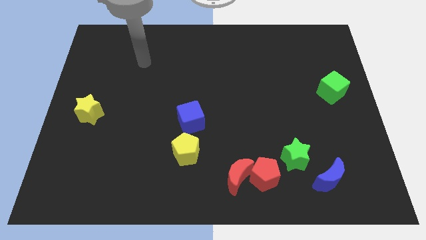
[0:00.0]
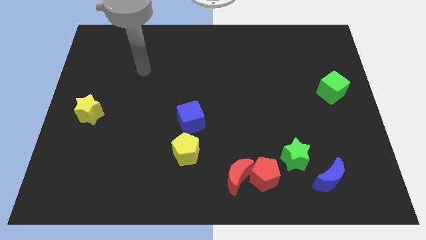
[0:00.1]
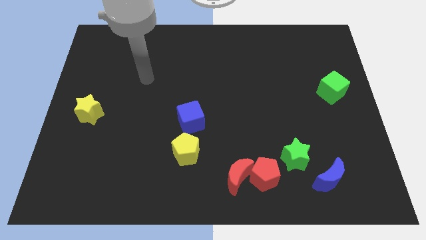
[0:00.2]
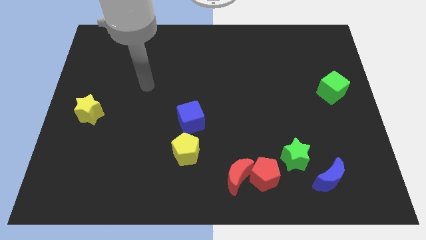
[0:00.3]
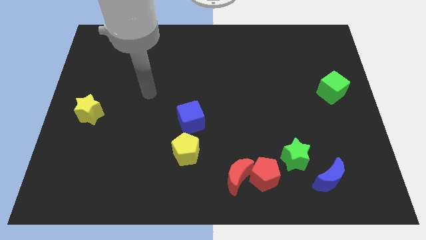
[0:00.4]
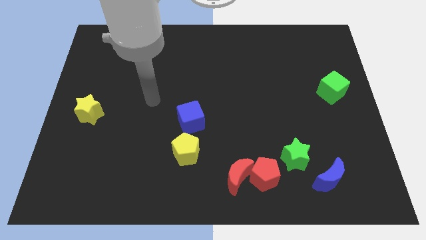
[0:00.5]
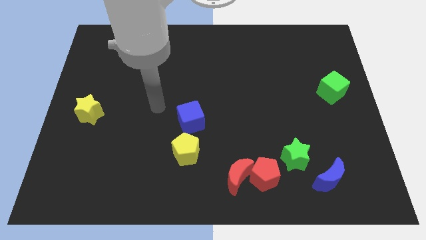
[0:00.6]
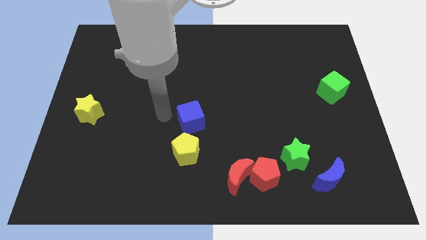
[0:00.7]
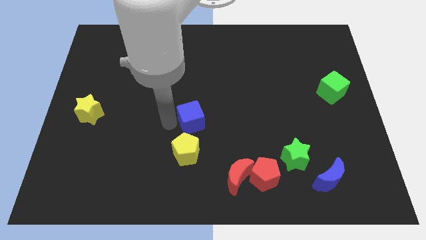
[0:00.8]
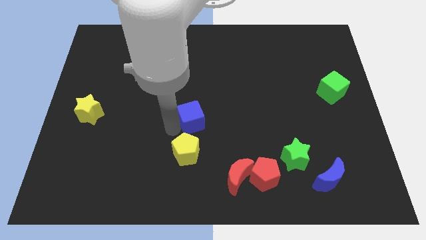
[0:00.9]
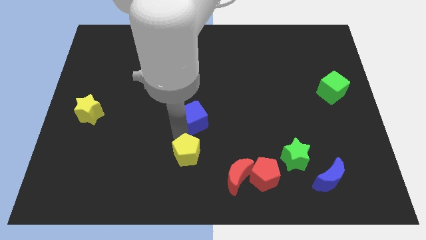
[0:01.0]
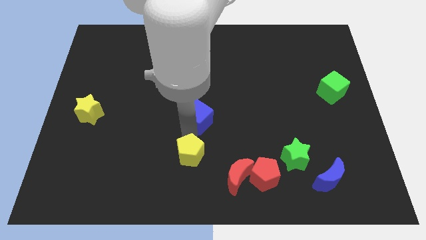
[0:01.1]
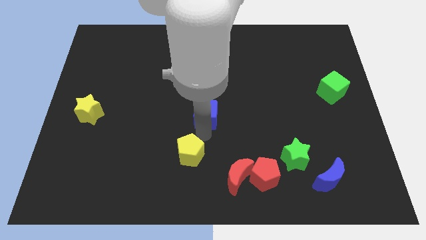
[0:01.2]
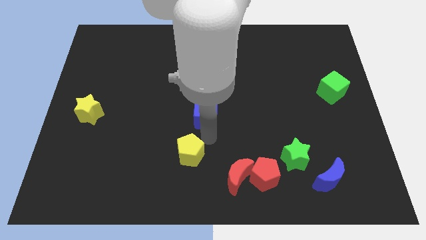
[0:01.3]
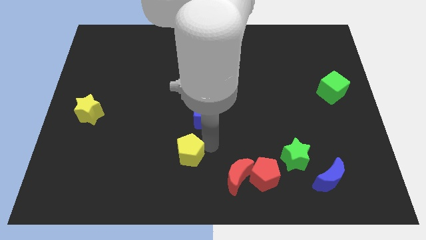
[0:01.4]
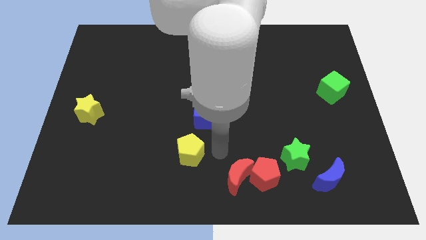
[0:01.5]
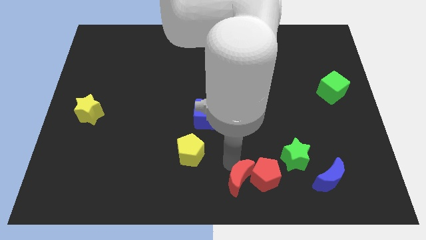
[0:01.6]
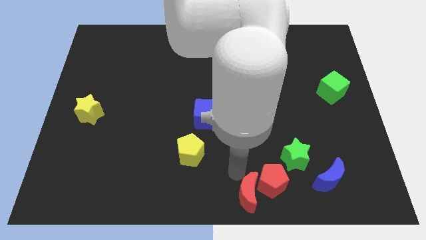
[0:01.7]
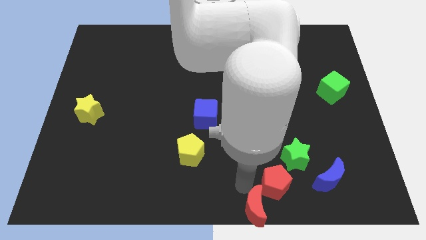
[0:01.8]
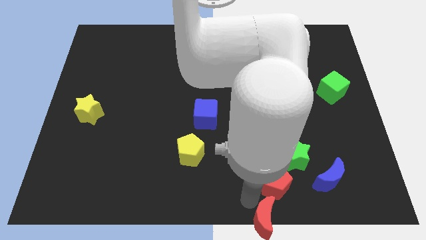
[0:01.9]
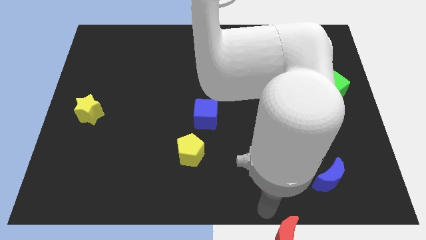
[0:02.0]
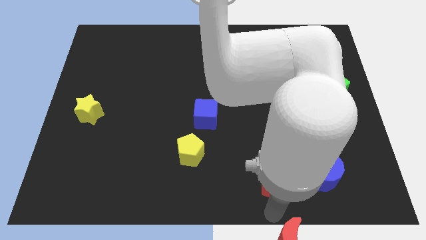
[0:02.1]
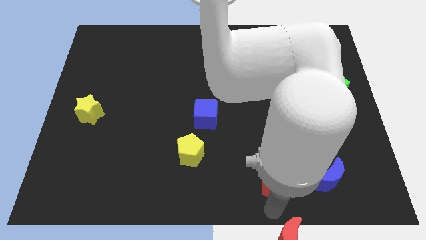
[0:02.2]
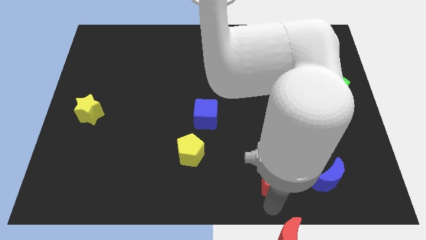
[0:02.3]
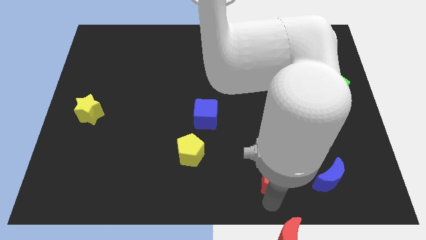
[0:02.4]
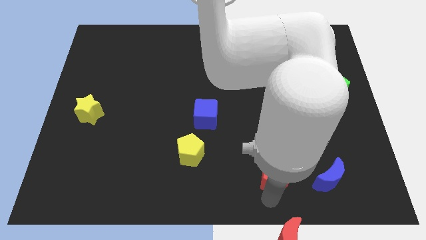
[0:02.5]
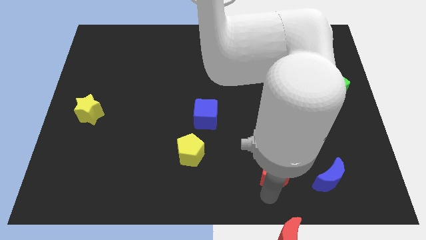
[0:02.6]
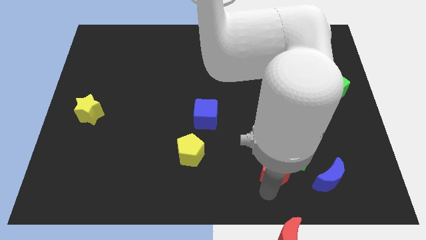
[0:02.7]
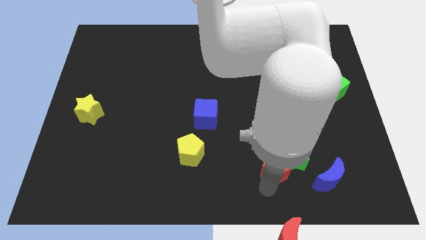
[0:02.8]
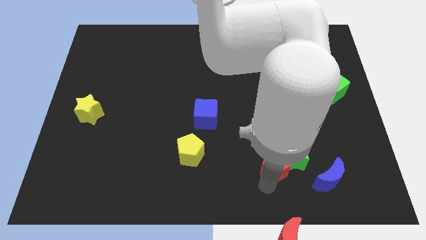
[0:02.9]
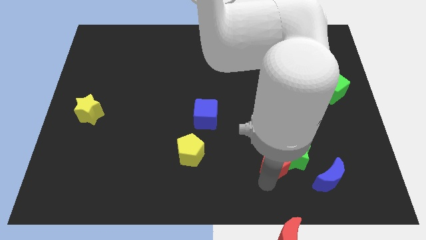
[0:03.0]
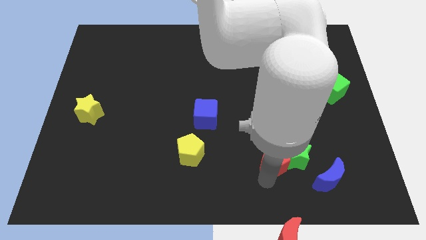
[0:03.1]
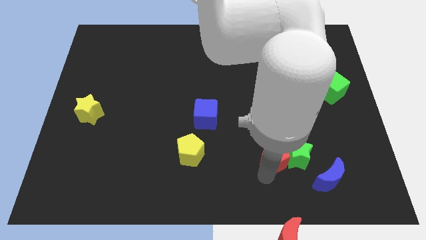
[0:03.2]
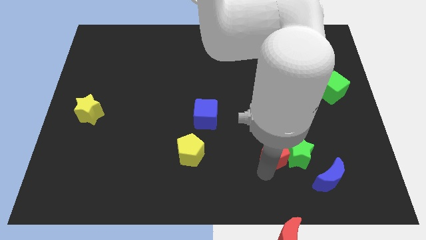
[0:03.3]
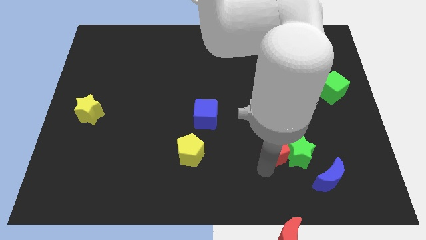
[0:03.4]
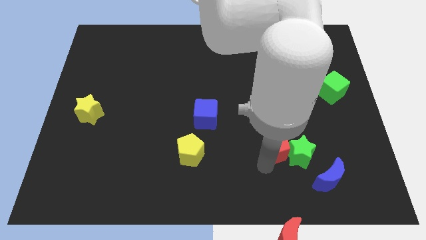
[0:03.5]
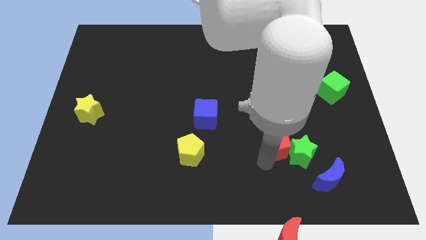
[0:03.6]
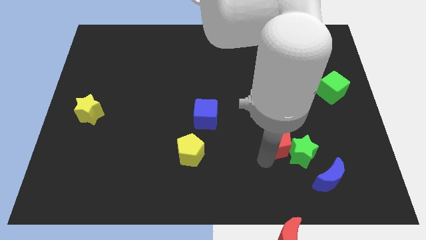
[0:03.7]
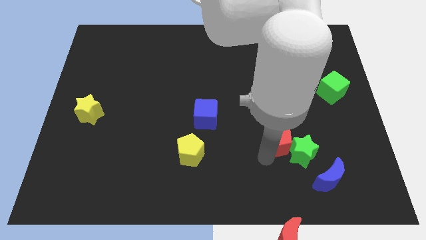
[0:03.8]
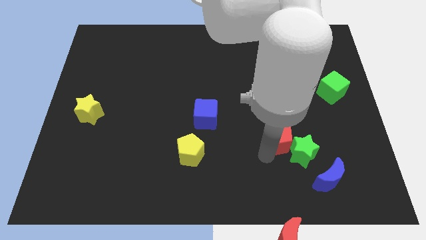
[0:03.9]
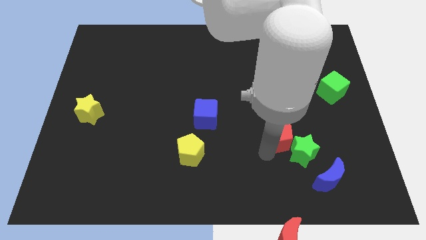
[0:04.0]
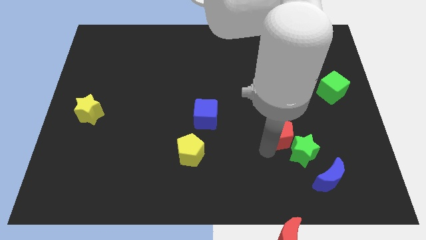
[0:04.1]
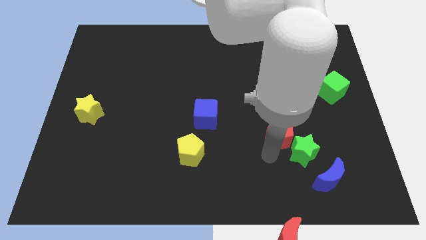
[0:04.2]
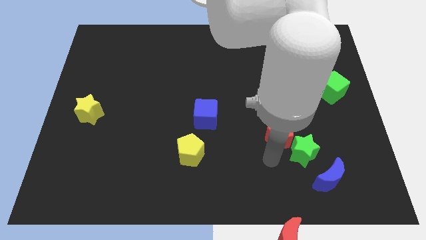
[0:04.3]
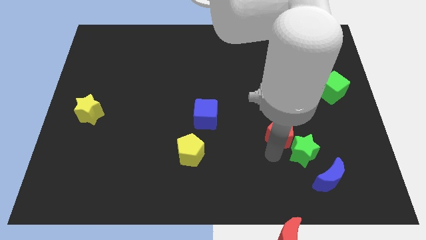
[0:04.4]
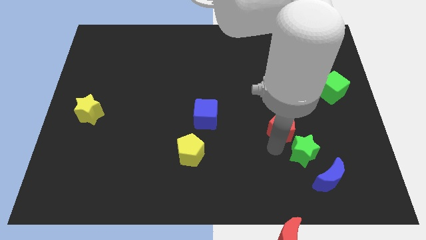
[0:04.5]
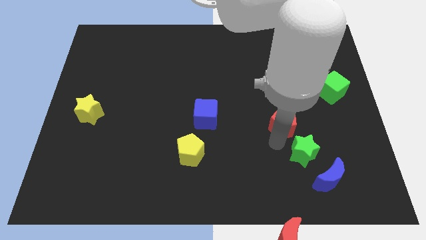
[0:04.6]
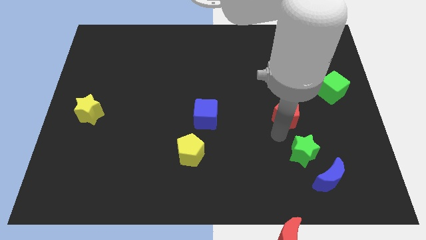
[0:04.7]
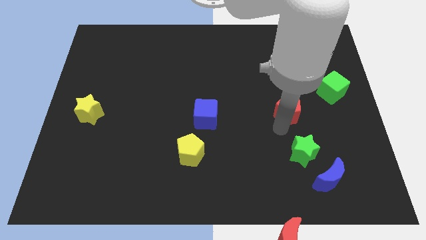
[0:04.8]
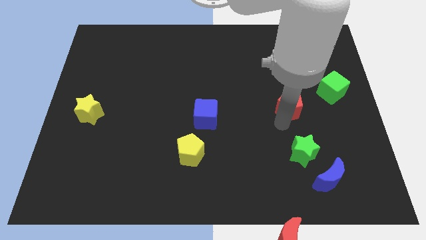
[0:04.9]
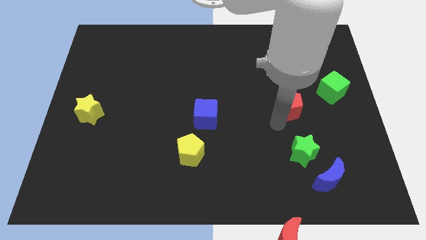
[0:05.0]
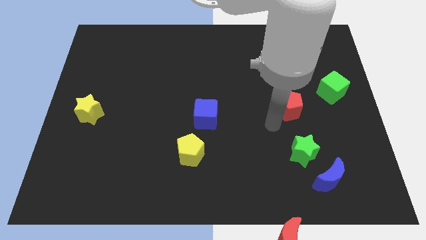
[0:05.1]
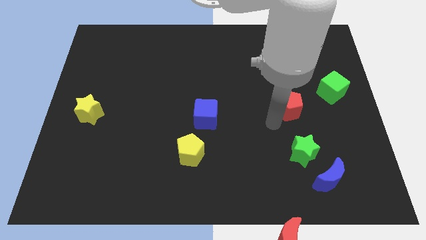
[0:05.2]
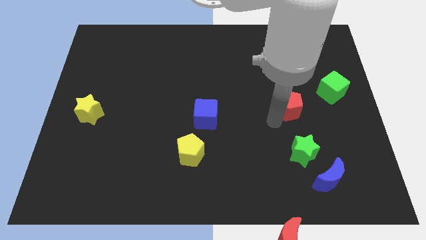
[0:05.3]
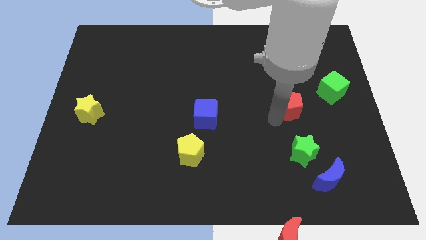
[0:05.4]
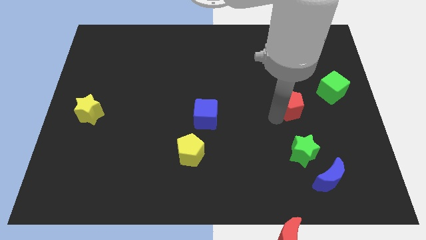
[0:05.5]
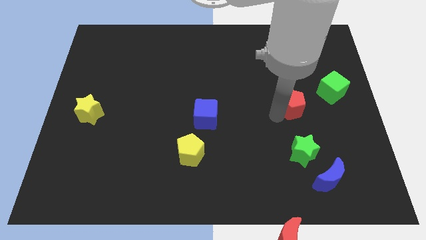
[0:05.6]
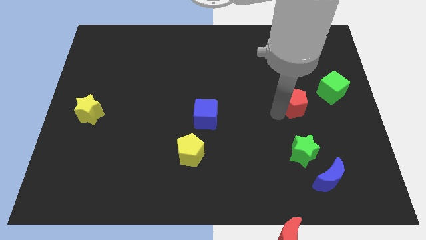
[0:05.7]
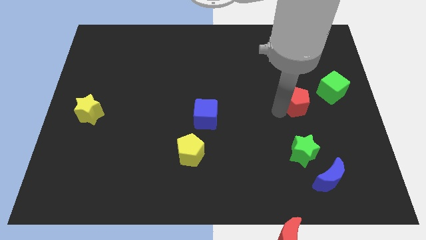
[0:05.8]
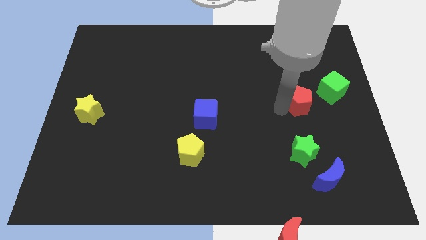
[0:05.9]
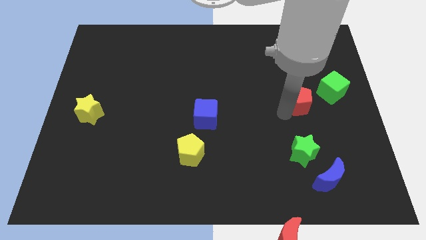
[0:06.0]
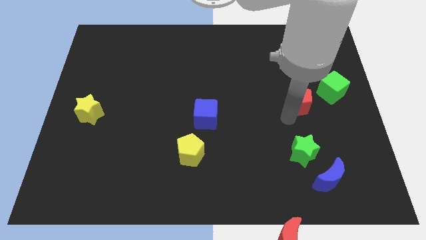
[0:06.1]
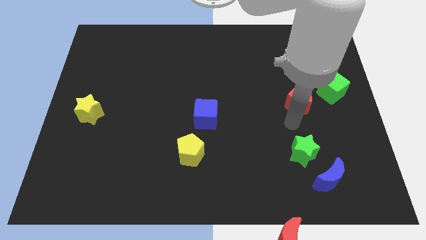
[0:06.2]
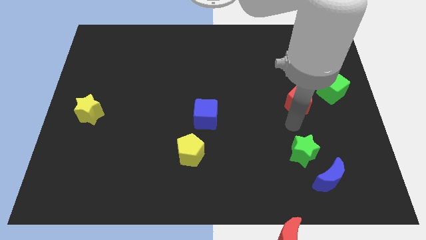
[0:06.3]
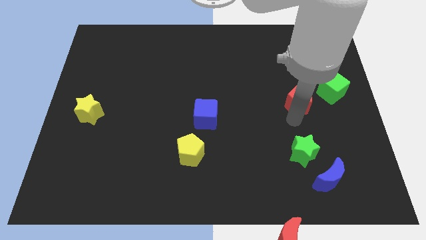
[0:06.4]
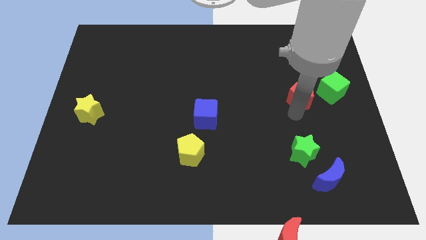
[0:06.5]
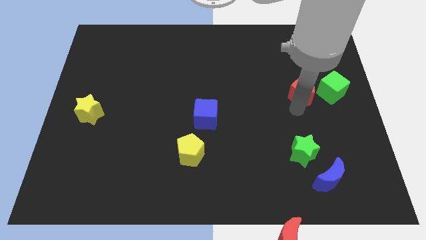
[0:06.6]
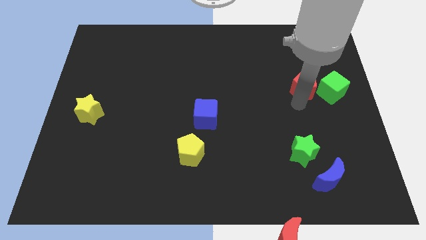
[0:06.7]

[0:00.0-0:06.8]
push the red pentagon diagonally up and to the left of the green cube

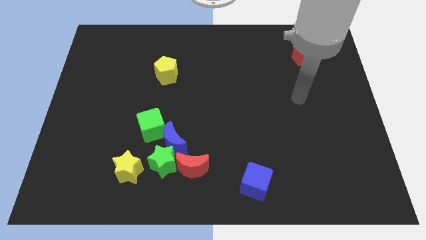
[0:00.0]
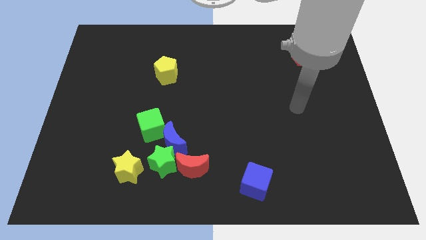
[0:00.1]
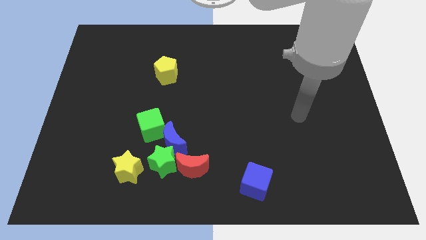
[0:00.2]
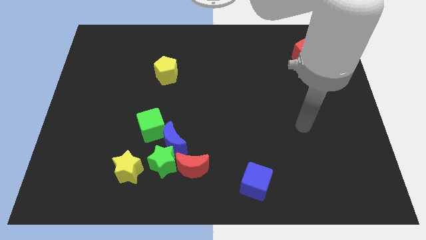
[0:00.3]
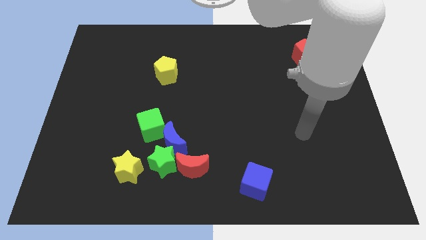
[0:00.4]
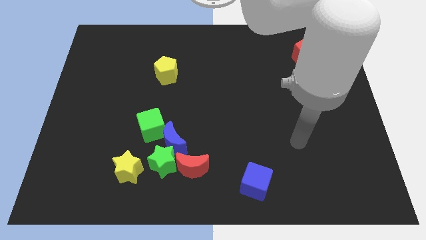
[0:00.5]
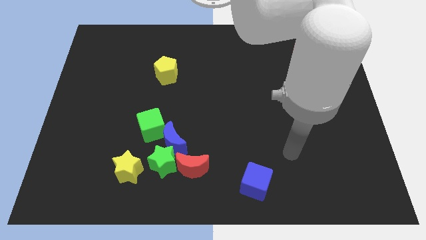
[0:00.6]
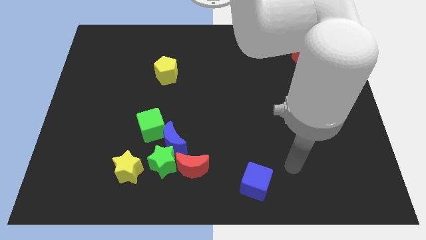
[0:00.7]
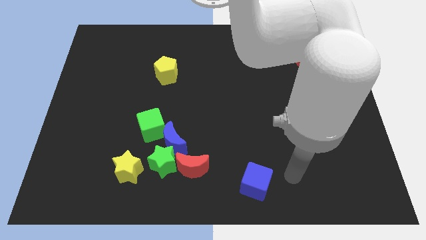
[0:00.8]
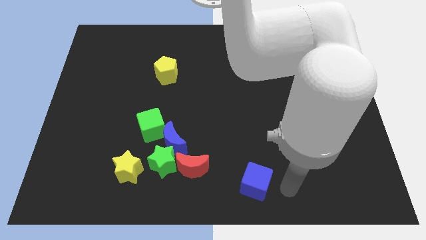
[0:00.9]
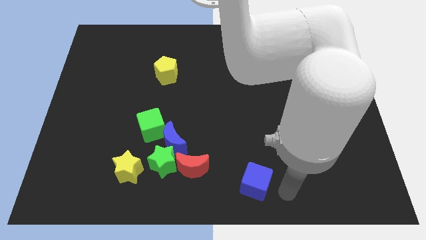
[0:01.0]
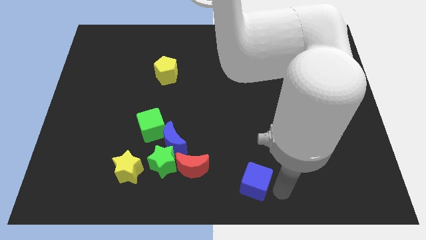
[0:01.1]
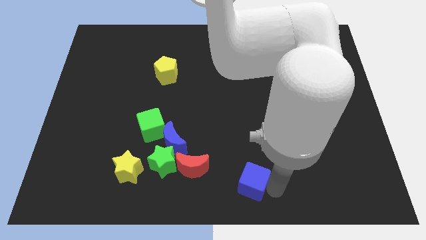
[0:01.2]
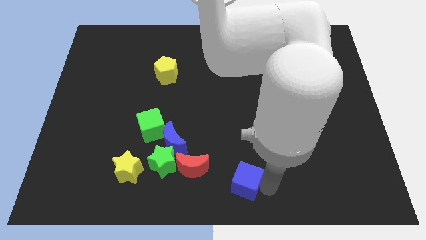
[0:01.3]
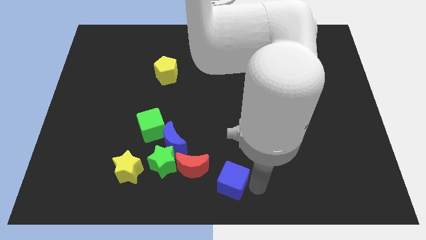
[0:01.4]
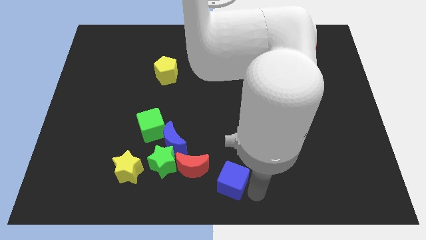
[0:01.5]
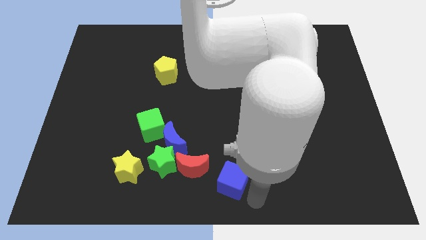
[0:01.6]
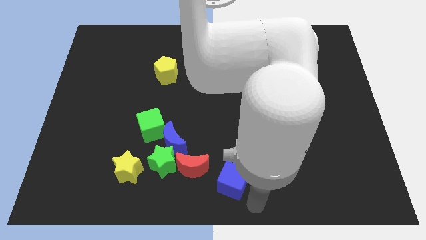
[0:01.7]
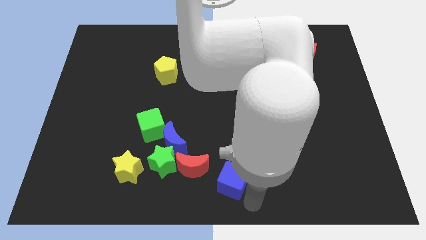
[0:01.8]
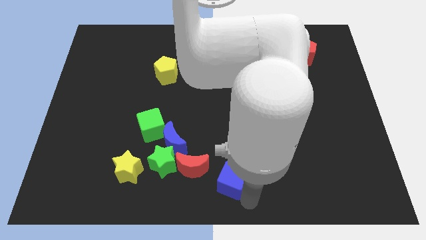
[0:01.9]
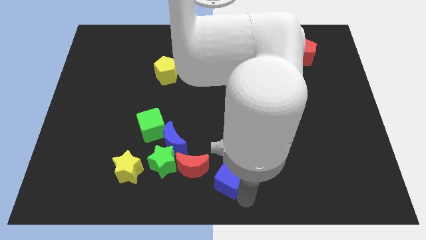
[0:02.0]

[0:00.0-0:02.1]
push the blue cube right of the green star
